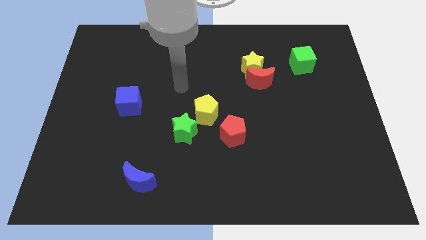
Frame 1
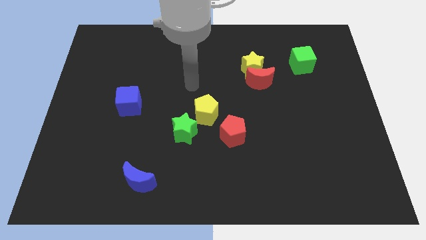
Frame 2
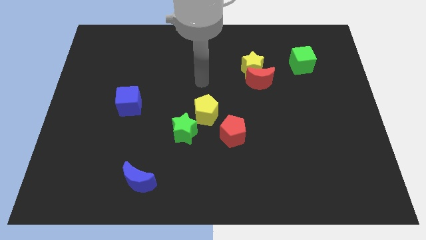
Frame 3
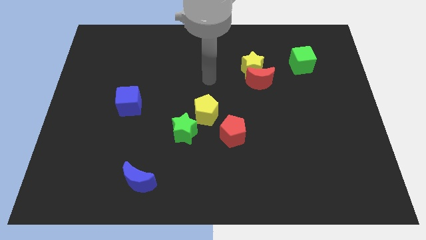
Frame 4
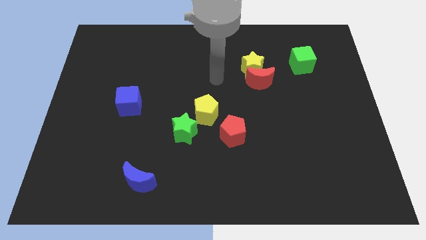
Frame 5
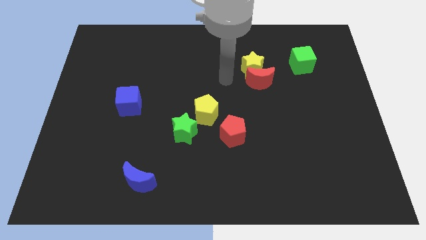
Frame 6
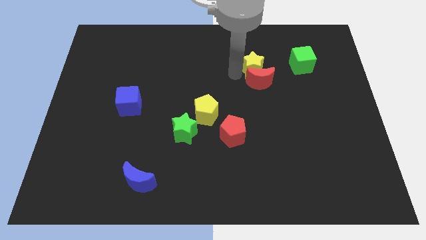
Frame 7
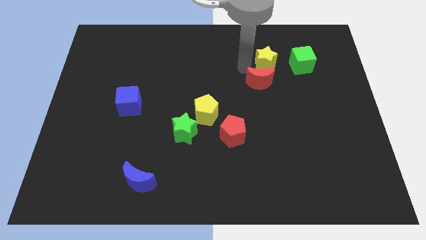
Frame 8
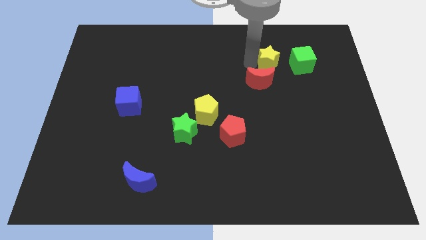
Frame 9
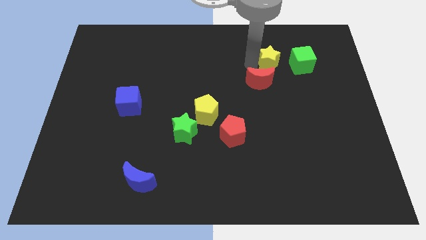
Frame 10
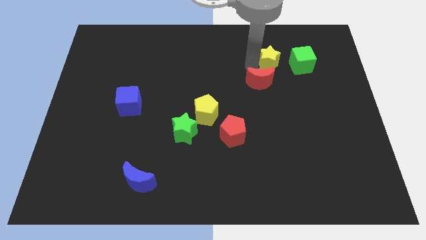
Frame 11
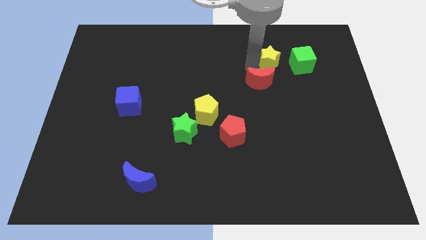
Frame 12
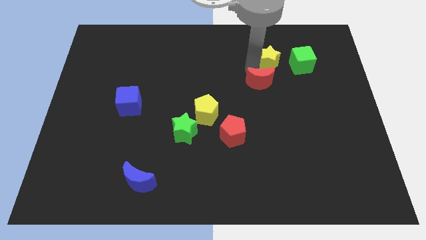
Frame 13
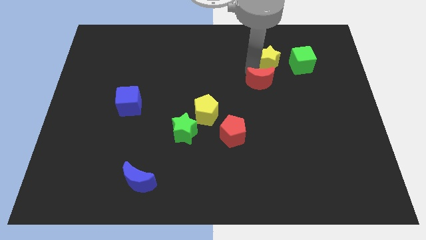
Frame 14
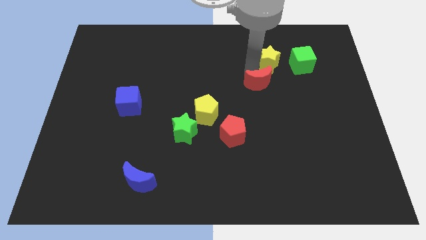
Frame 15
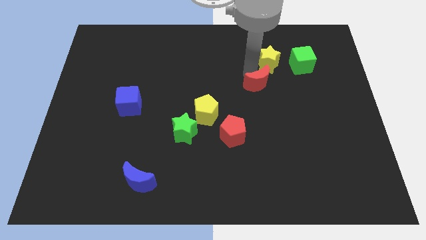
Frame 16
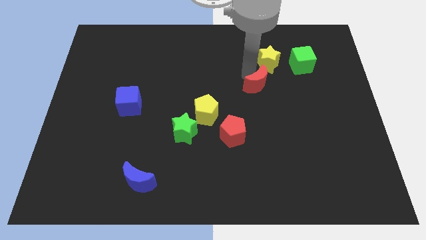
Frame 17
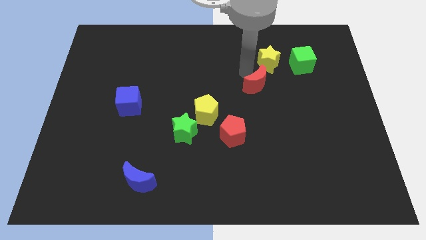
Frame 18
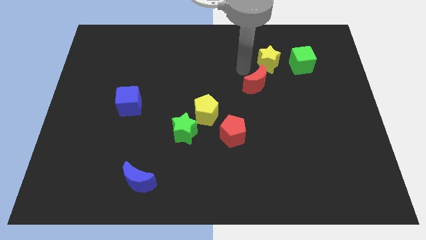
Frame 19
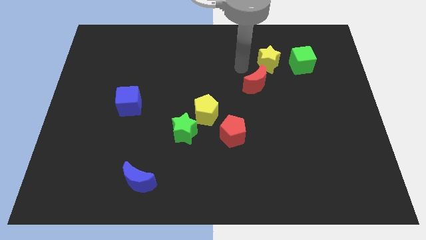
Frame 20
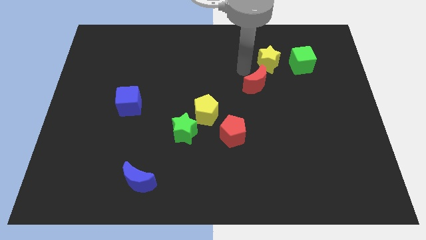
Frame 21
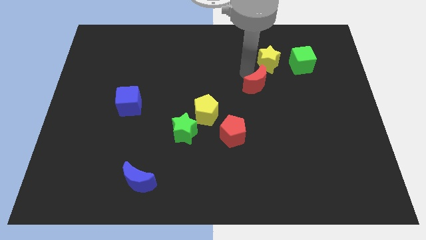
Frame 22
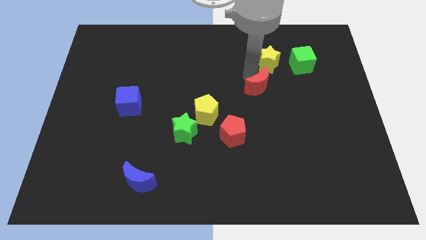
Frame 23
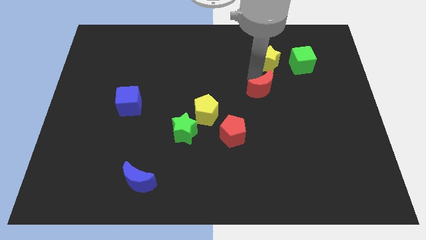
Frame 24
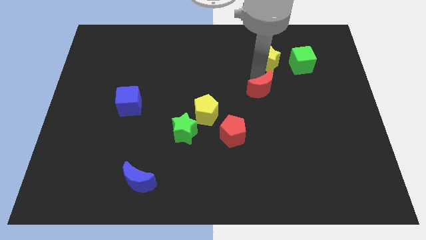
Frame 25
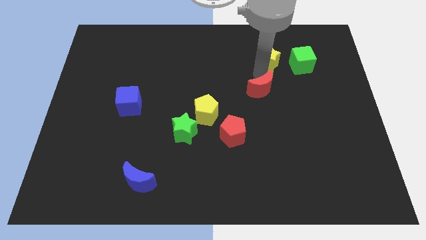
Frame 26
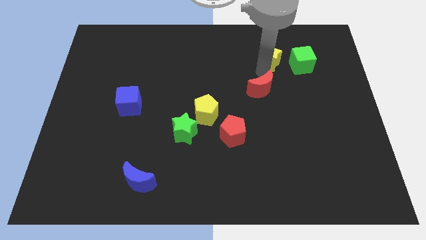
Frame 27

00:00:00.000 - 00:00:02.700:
move the red moon away from the yellow star

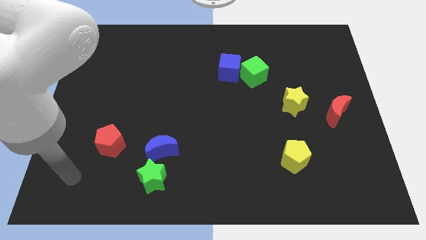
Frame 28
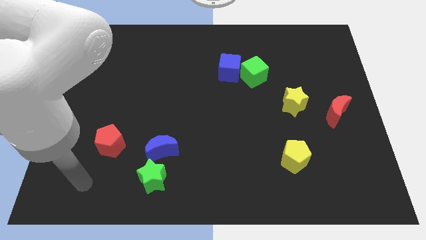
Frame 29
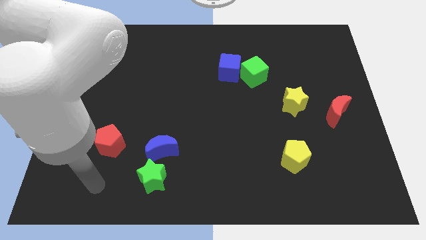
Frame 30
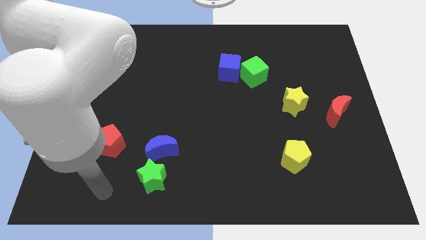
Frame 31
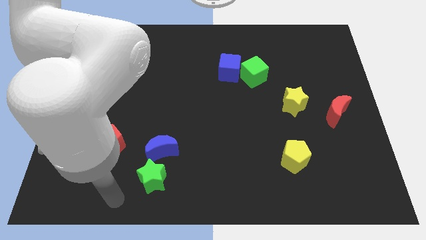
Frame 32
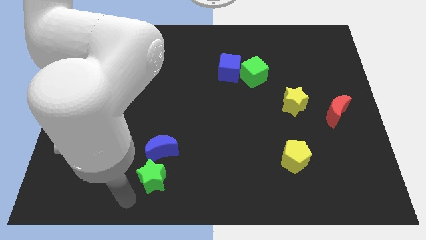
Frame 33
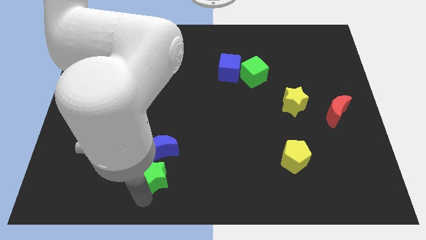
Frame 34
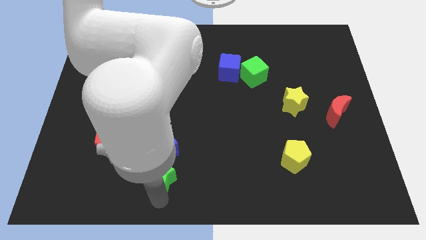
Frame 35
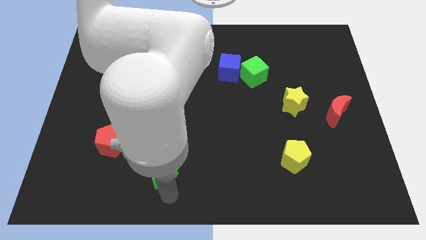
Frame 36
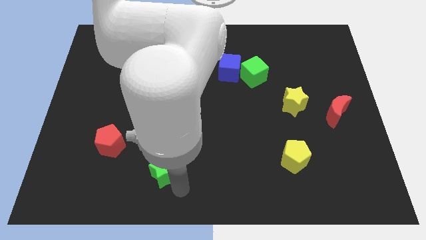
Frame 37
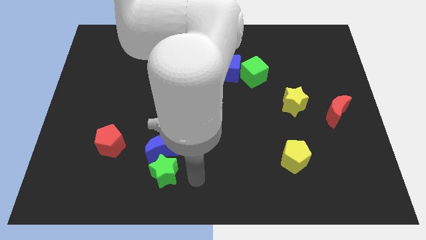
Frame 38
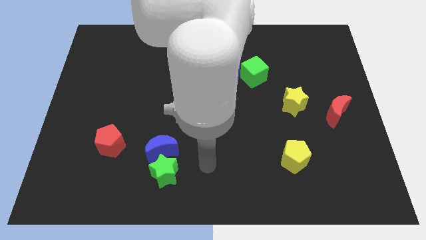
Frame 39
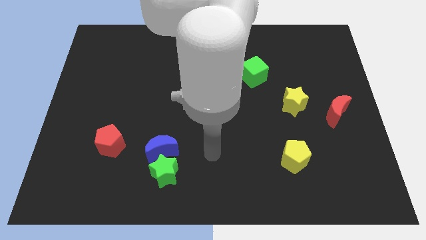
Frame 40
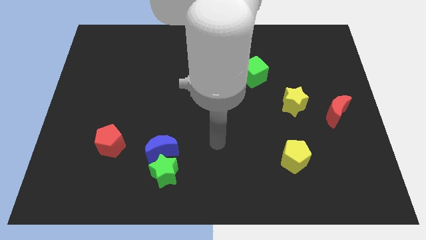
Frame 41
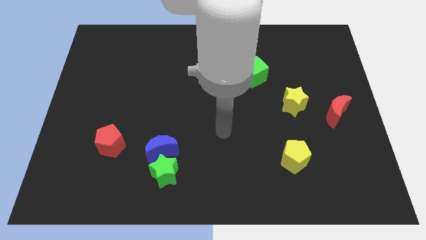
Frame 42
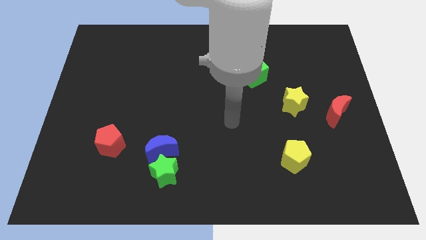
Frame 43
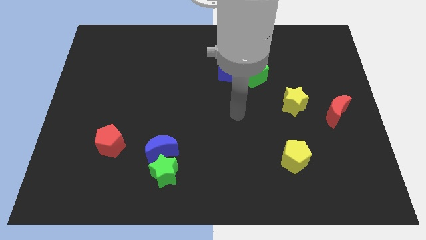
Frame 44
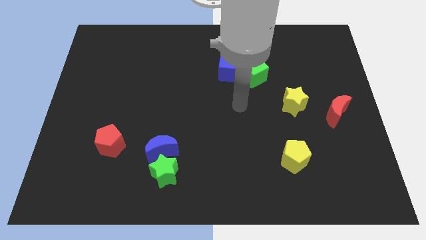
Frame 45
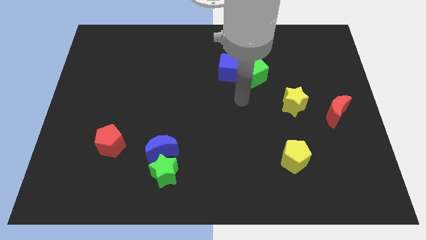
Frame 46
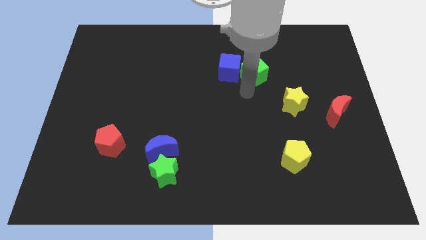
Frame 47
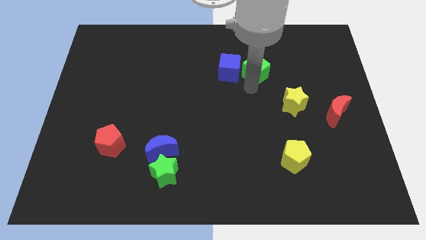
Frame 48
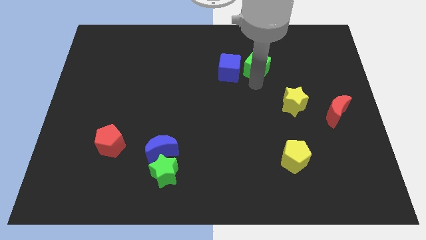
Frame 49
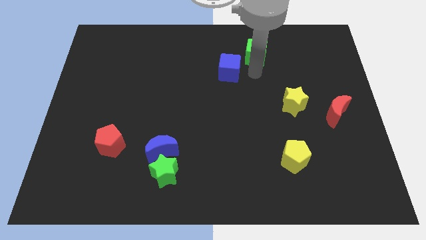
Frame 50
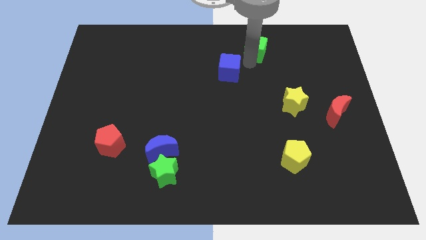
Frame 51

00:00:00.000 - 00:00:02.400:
separate the blue cube from the green cube

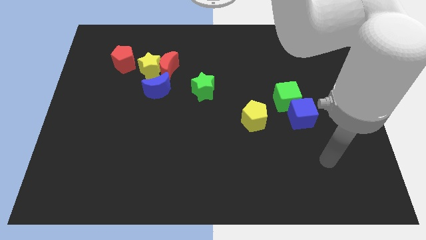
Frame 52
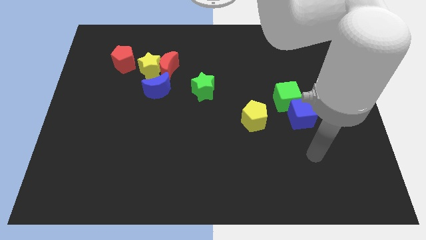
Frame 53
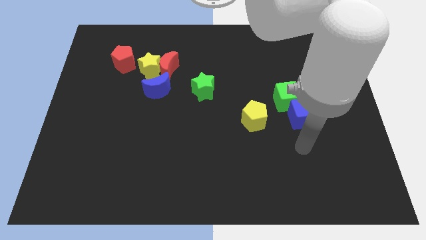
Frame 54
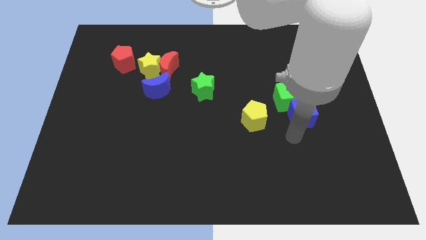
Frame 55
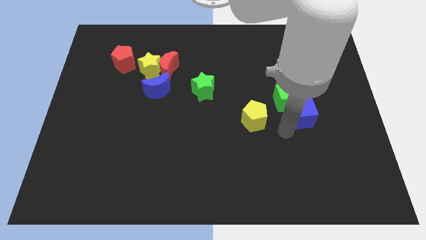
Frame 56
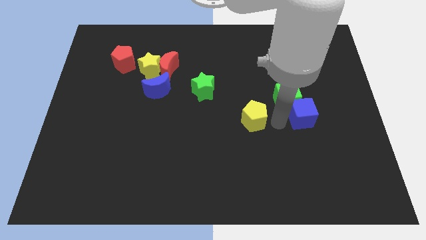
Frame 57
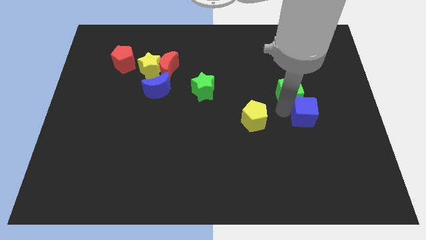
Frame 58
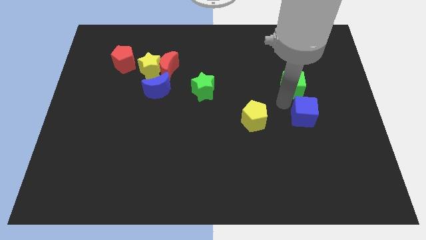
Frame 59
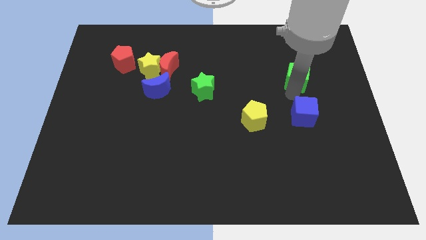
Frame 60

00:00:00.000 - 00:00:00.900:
pull the blue cube apart from the green cube

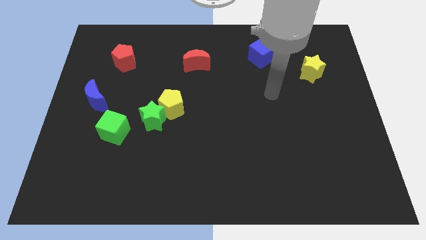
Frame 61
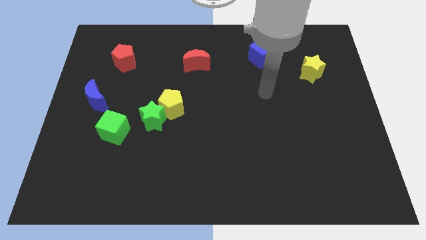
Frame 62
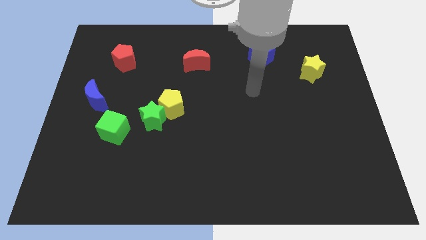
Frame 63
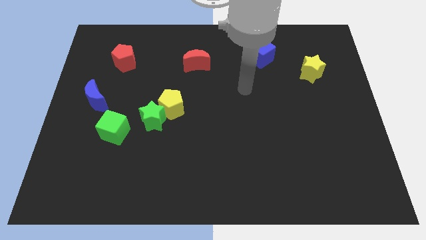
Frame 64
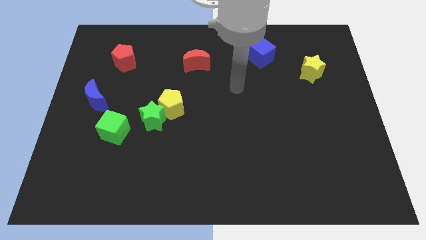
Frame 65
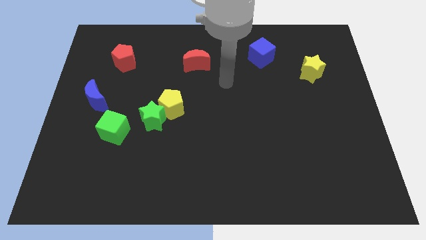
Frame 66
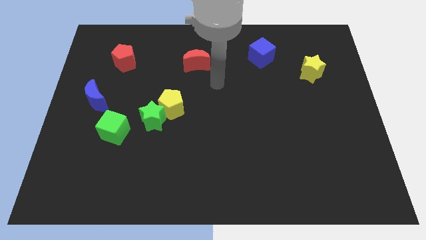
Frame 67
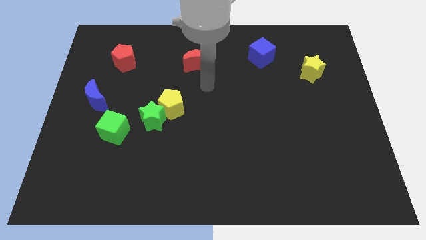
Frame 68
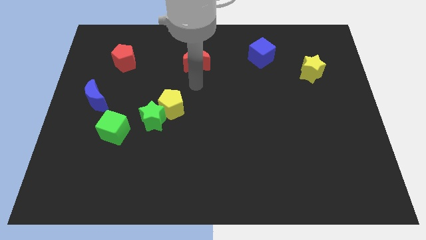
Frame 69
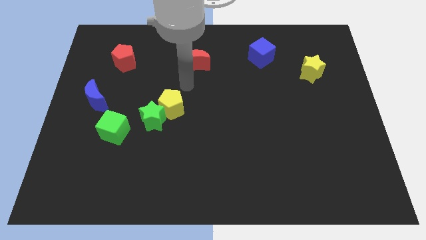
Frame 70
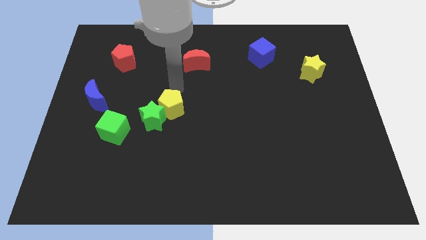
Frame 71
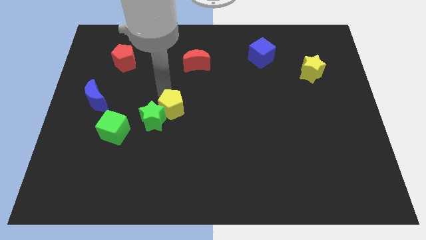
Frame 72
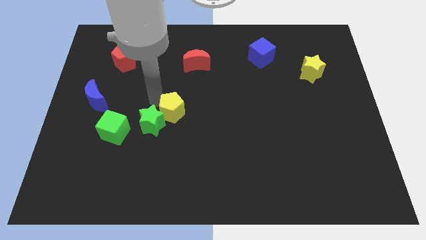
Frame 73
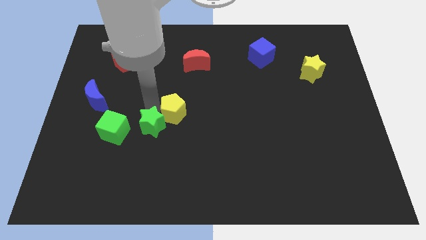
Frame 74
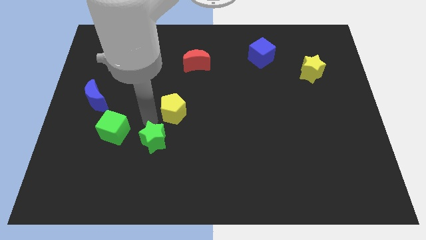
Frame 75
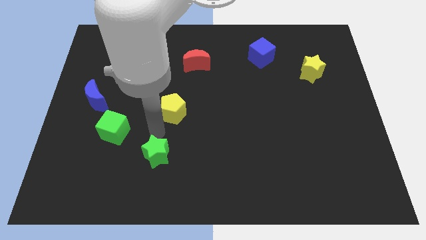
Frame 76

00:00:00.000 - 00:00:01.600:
pull the yellow pentagon apart from the green star

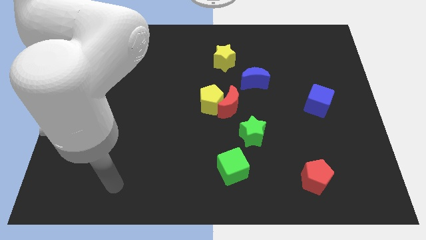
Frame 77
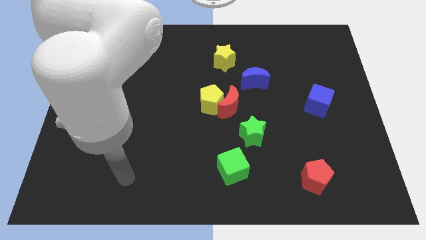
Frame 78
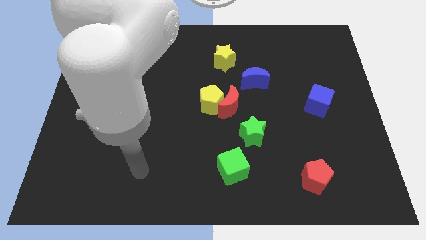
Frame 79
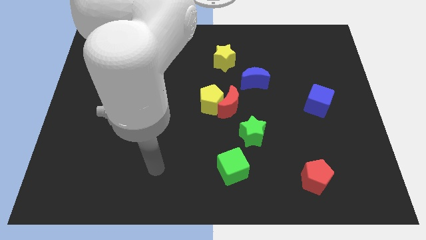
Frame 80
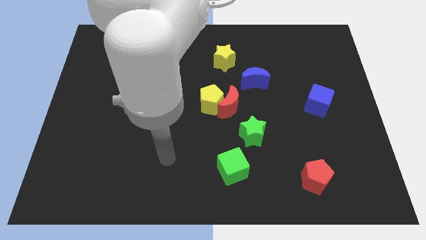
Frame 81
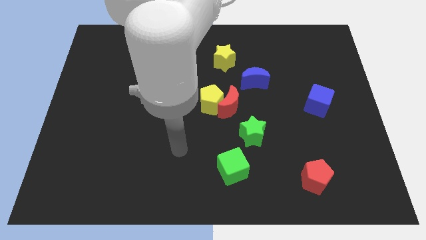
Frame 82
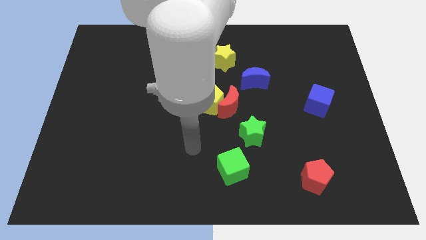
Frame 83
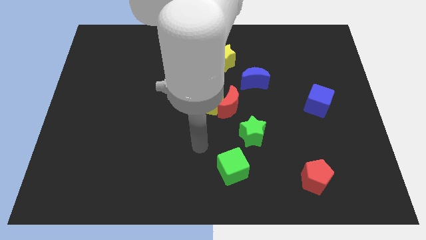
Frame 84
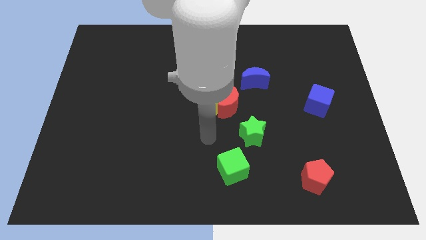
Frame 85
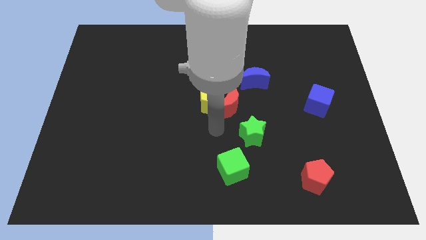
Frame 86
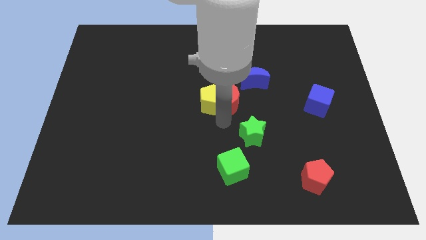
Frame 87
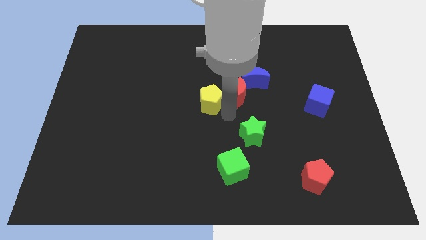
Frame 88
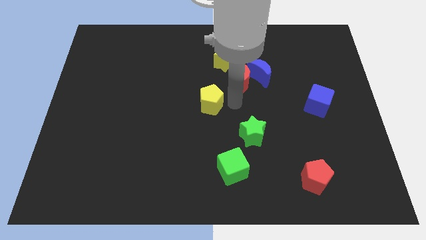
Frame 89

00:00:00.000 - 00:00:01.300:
separate the yellow pentagon from the red moon

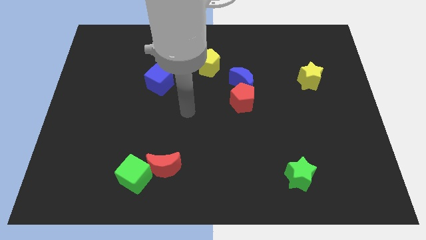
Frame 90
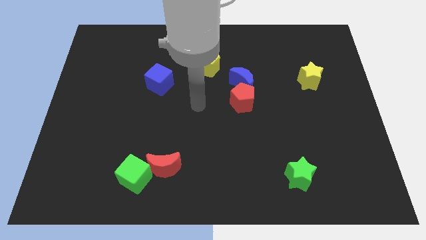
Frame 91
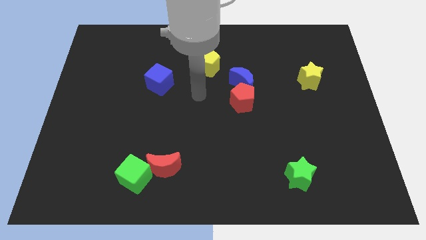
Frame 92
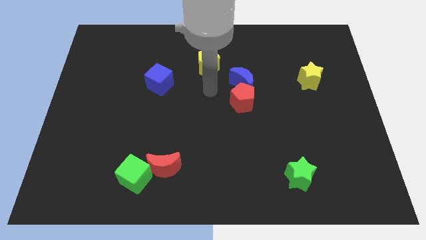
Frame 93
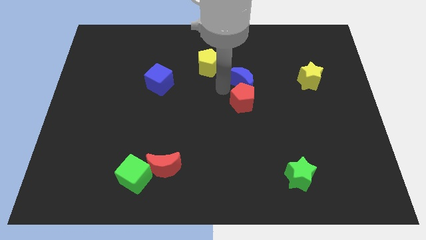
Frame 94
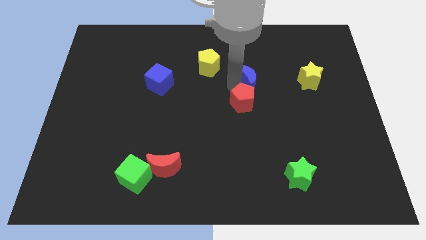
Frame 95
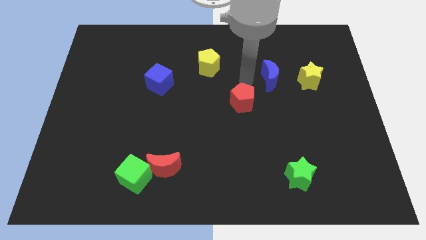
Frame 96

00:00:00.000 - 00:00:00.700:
pull the red pentagon apart from the blue moon
